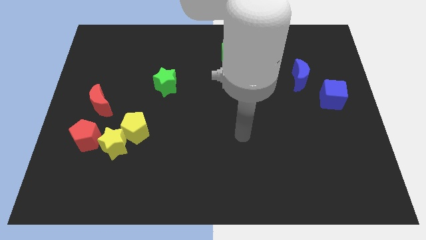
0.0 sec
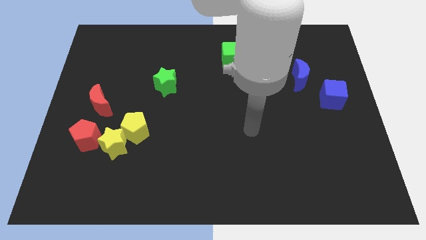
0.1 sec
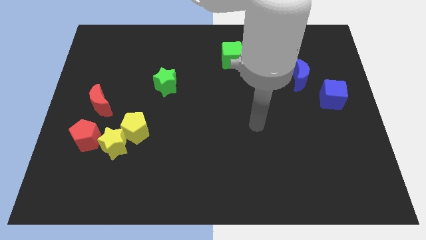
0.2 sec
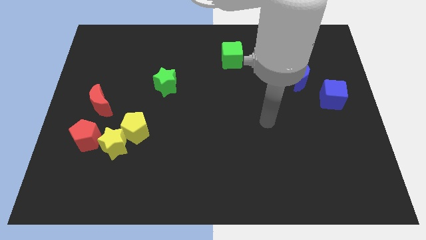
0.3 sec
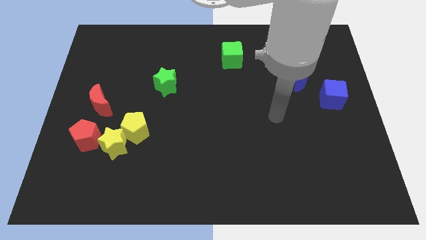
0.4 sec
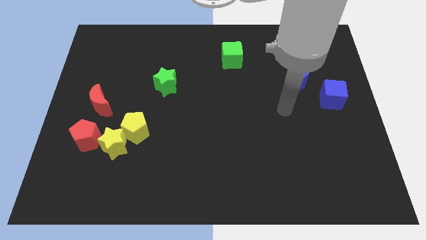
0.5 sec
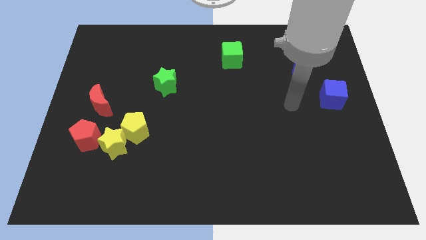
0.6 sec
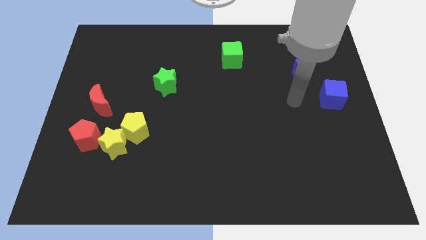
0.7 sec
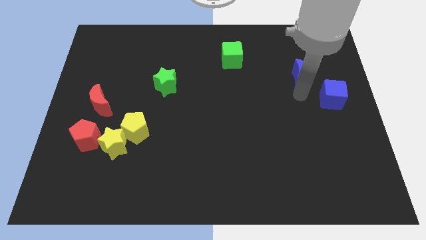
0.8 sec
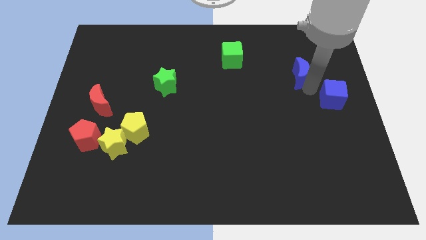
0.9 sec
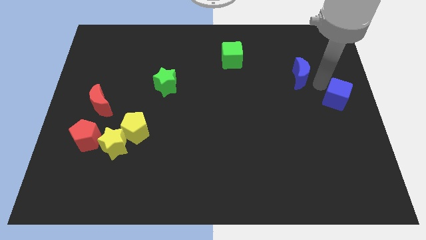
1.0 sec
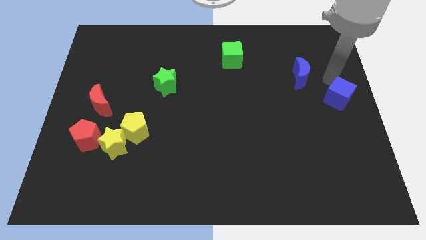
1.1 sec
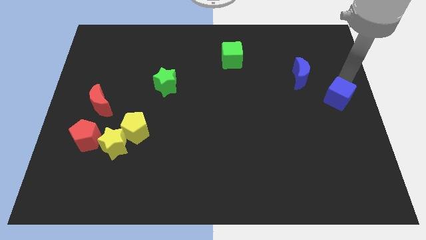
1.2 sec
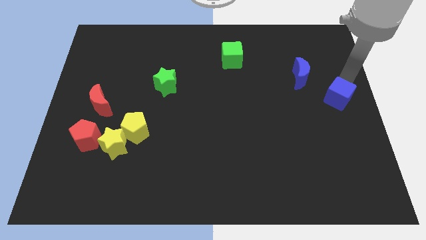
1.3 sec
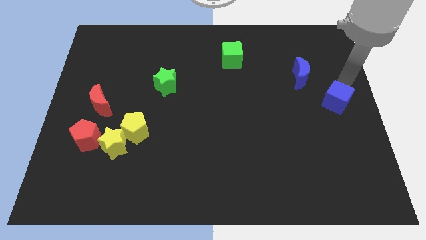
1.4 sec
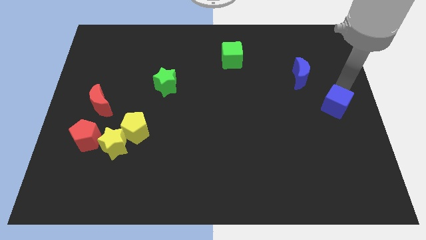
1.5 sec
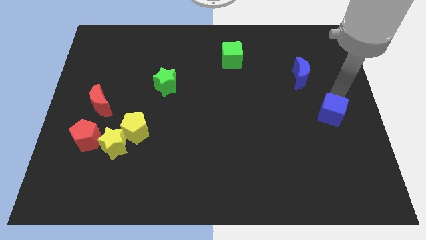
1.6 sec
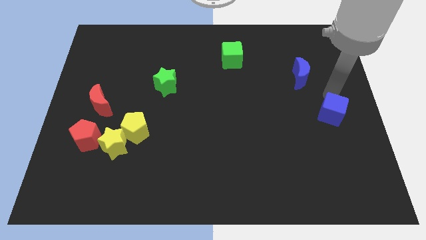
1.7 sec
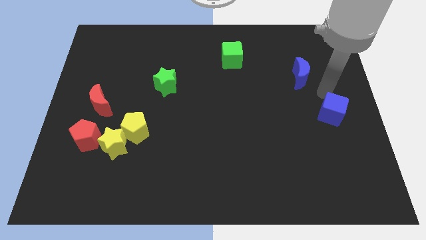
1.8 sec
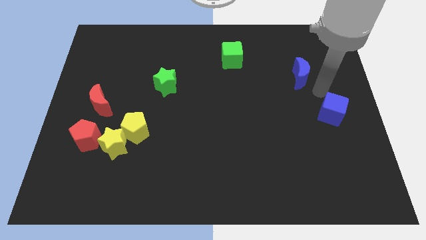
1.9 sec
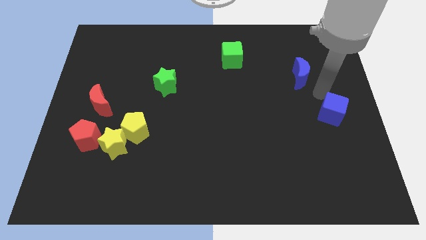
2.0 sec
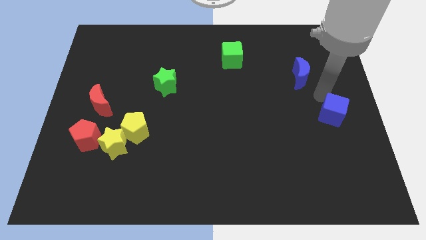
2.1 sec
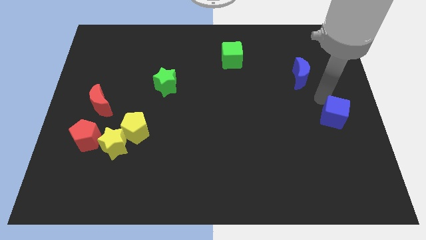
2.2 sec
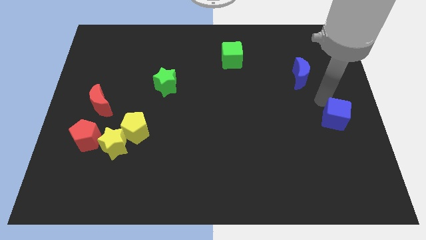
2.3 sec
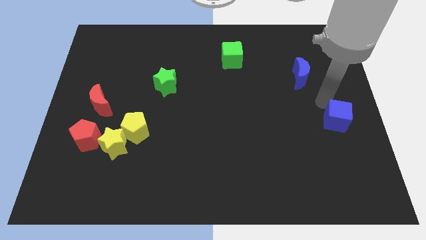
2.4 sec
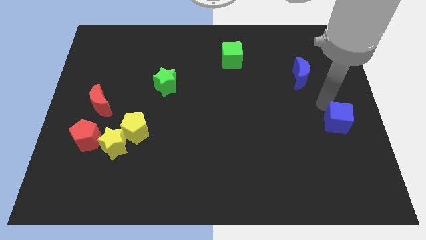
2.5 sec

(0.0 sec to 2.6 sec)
slightly push the blue cube downwards

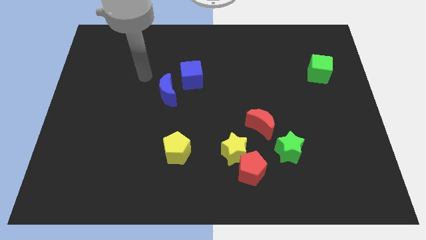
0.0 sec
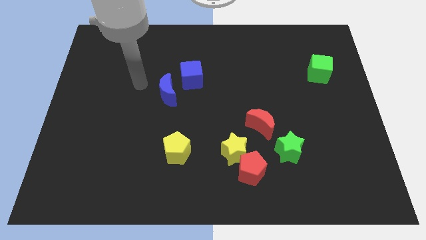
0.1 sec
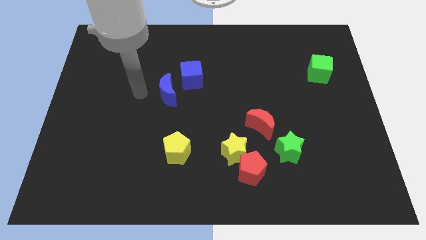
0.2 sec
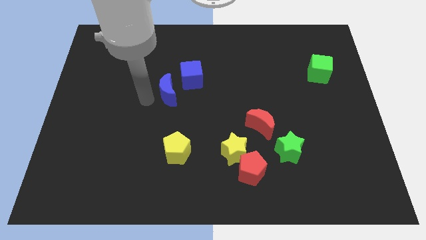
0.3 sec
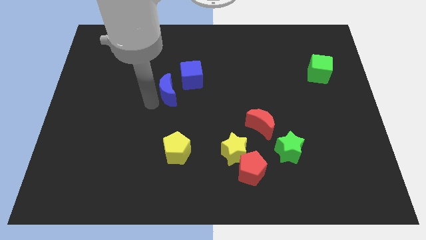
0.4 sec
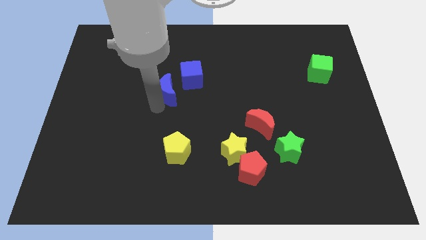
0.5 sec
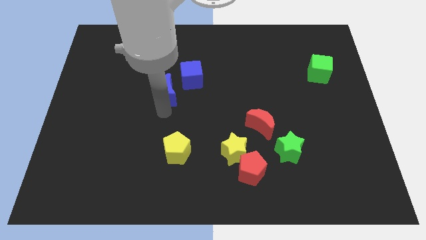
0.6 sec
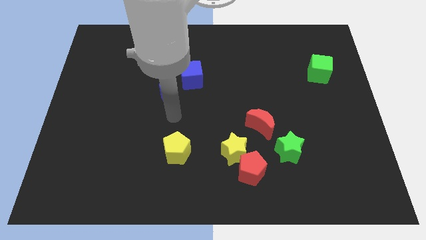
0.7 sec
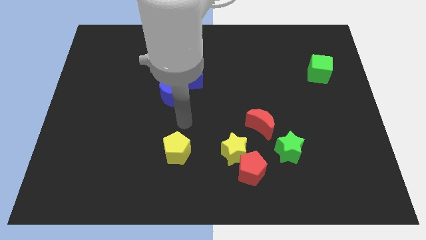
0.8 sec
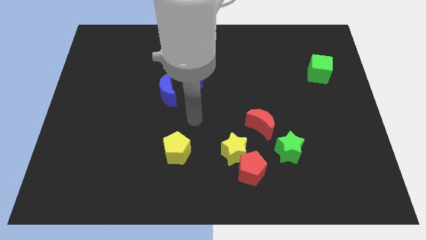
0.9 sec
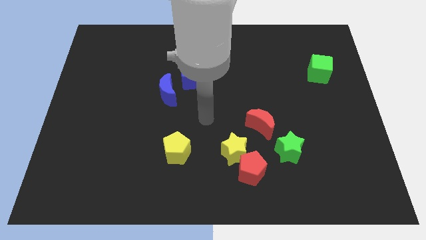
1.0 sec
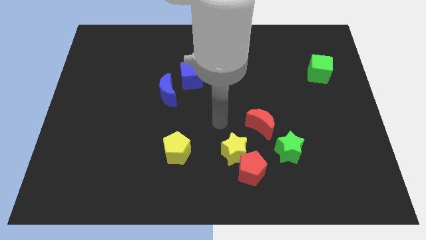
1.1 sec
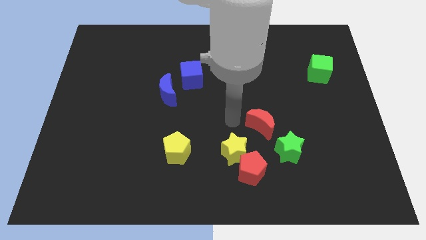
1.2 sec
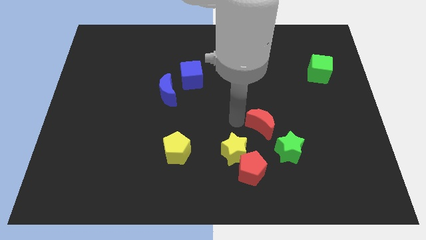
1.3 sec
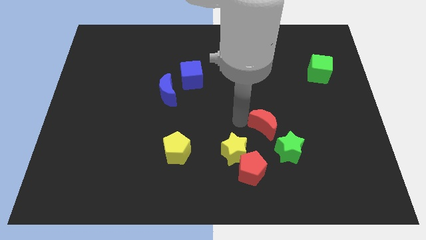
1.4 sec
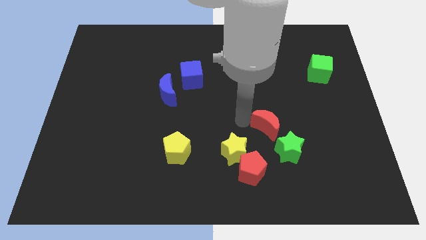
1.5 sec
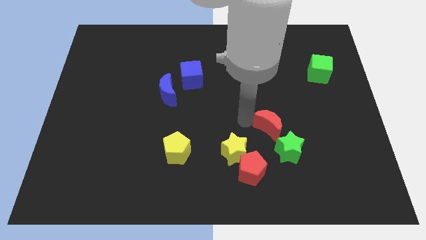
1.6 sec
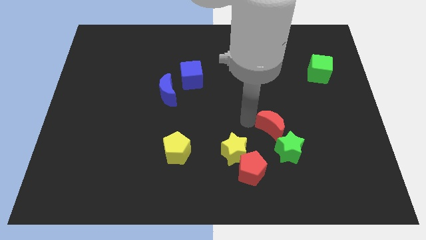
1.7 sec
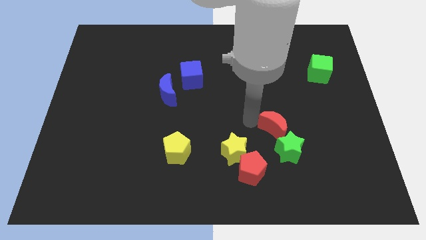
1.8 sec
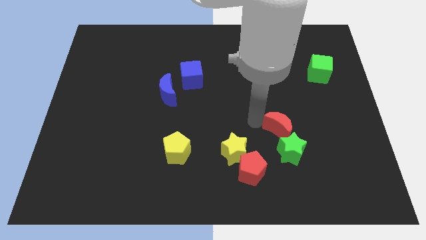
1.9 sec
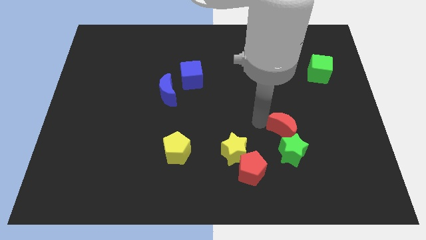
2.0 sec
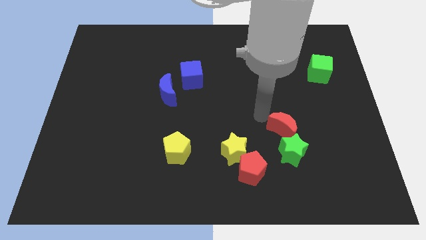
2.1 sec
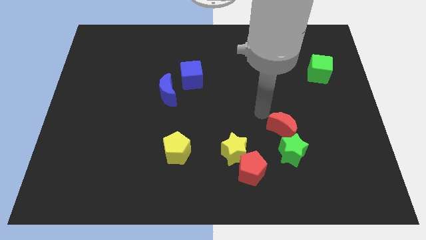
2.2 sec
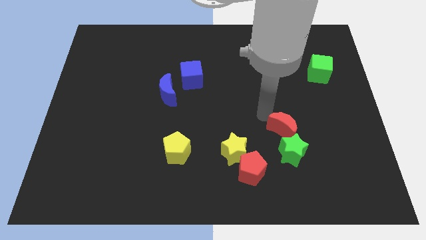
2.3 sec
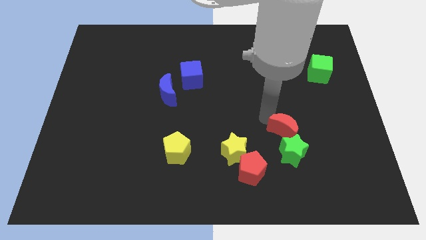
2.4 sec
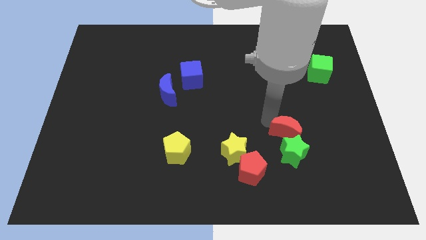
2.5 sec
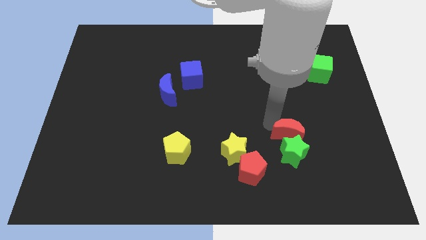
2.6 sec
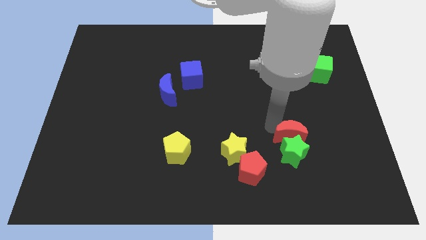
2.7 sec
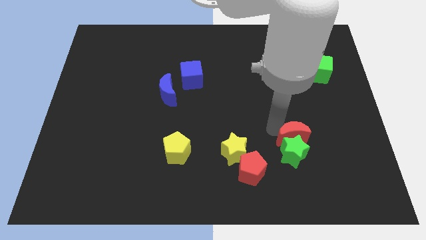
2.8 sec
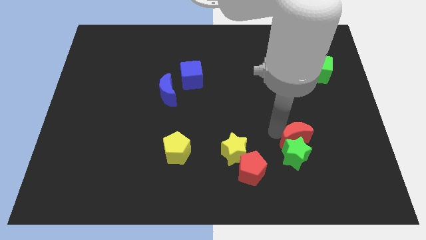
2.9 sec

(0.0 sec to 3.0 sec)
slide the red moon down and right diagonally a little

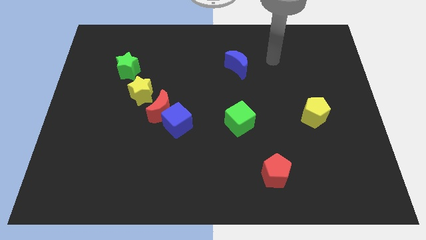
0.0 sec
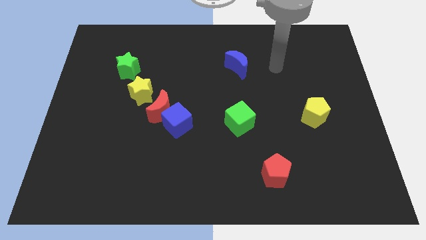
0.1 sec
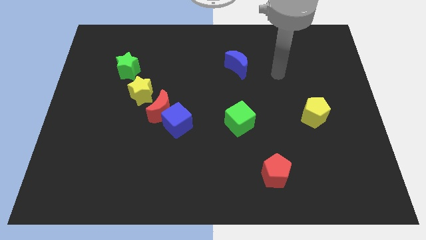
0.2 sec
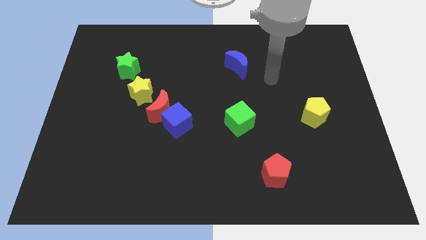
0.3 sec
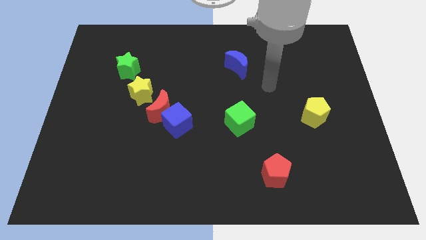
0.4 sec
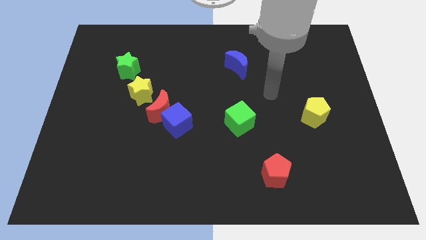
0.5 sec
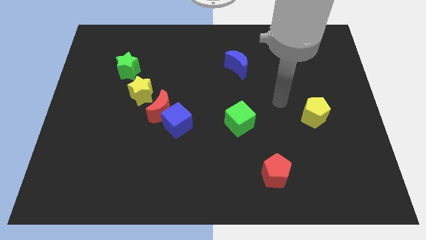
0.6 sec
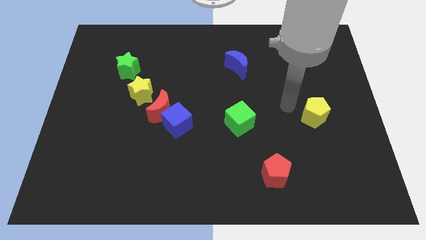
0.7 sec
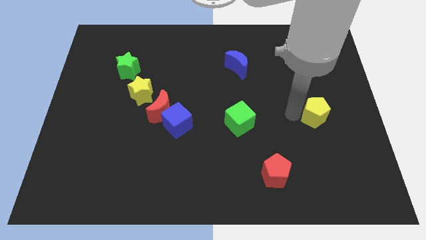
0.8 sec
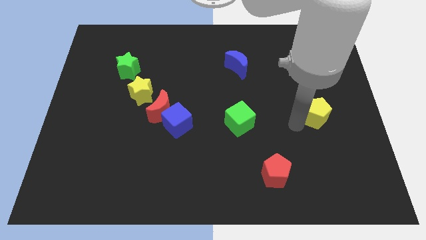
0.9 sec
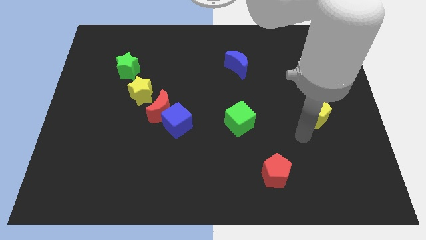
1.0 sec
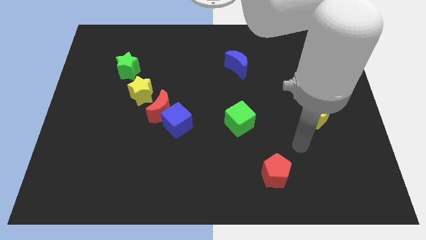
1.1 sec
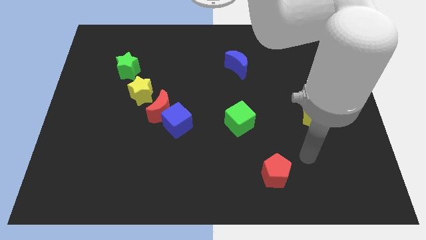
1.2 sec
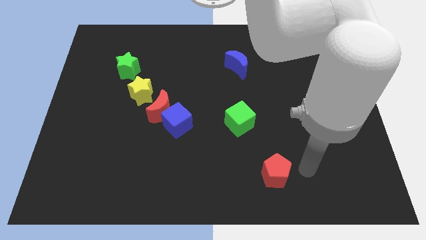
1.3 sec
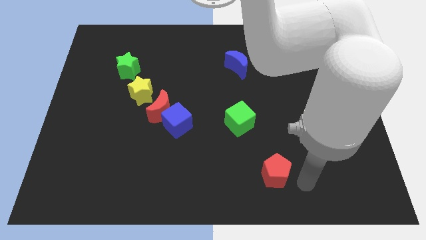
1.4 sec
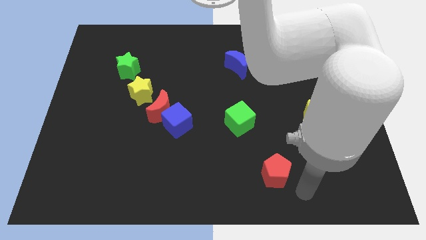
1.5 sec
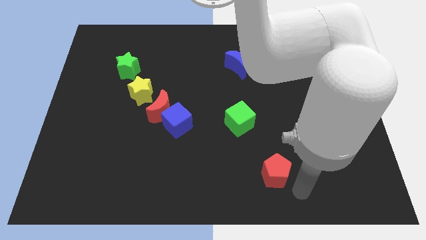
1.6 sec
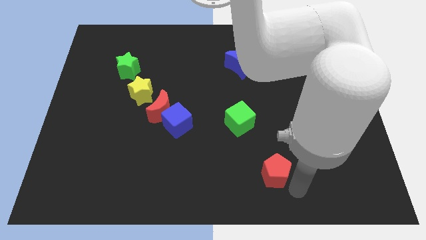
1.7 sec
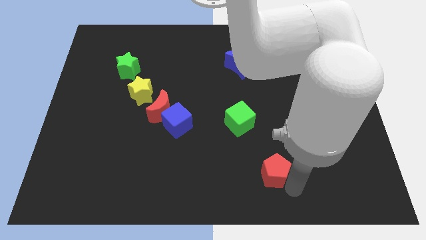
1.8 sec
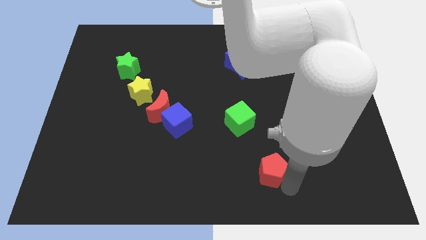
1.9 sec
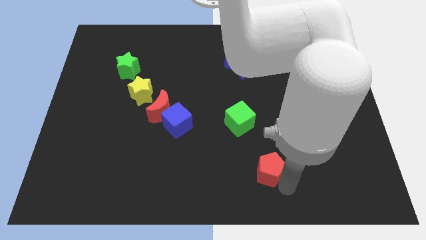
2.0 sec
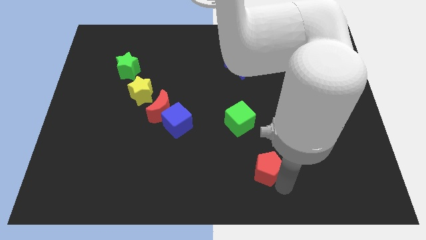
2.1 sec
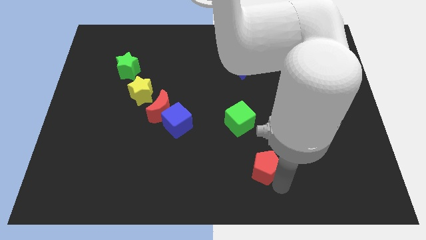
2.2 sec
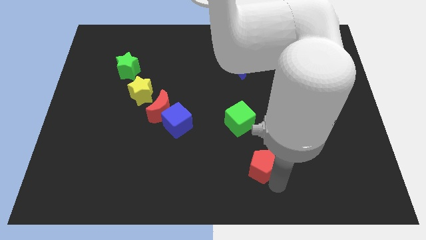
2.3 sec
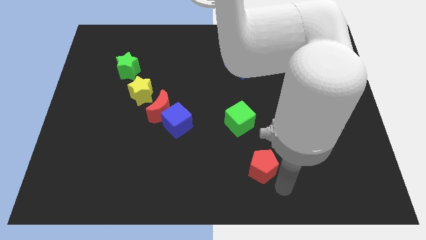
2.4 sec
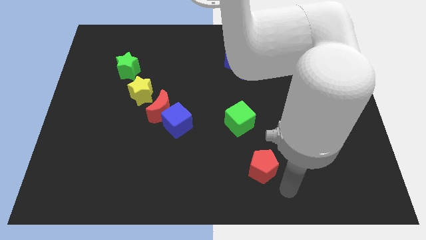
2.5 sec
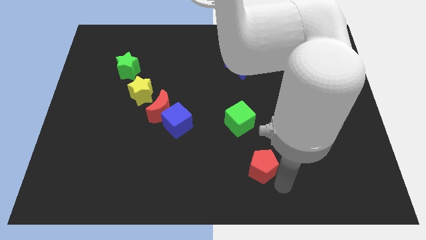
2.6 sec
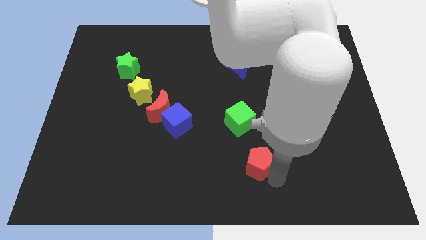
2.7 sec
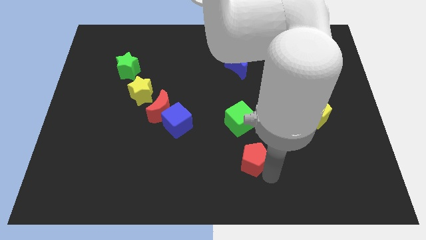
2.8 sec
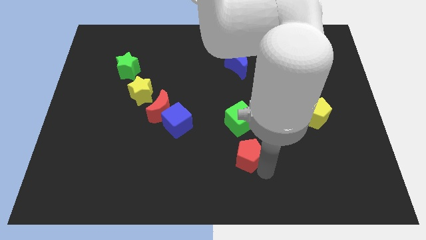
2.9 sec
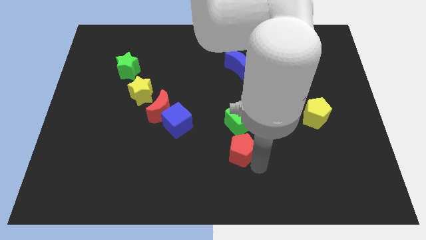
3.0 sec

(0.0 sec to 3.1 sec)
slightly move the red pentagon up and left
